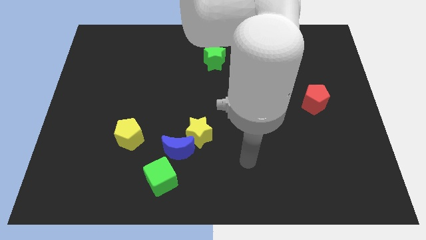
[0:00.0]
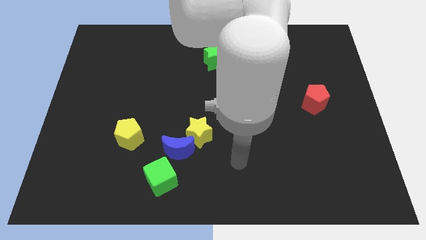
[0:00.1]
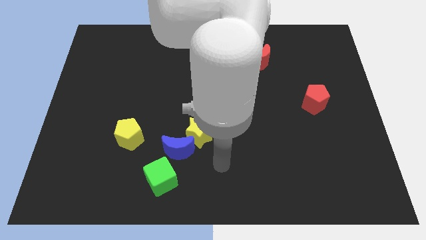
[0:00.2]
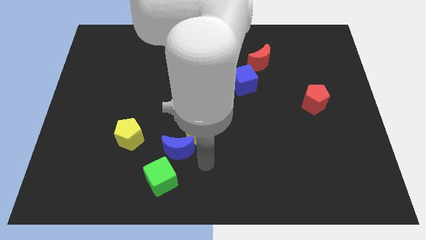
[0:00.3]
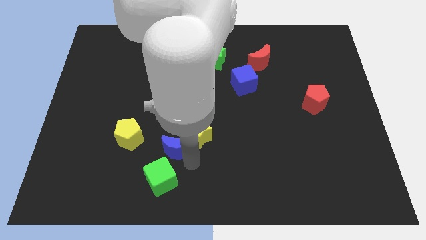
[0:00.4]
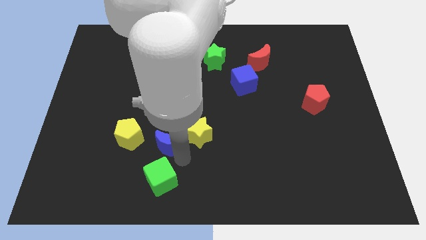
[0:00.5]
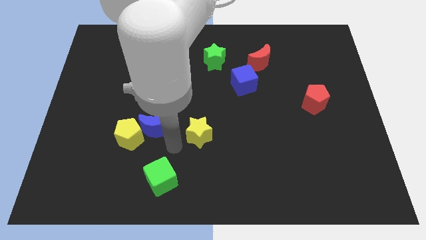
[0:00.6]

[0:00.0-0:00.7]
separate the yellow star from the blue moon

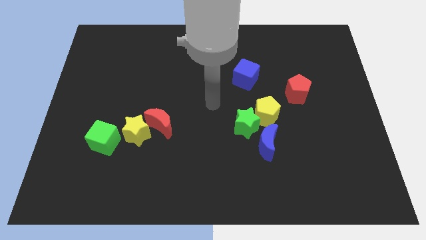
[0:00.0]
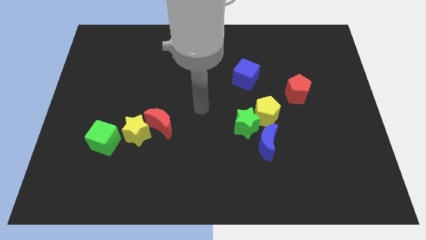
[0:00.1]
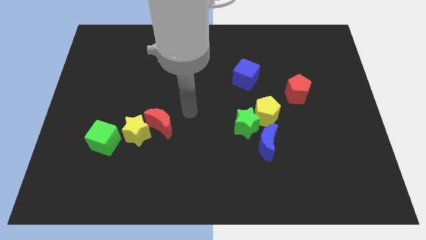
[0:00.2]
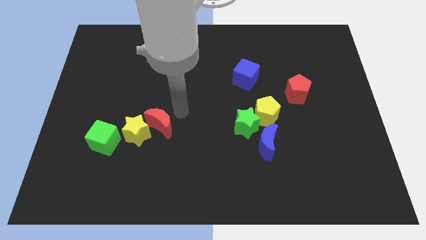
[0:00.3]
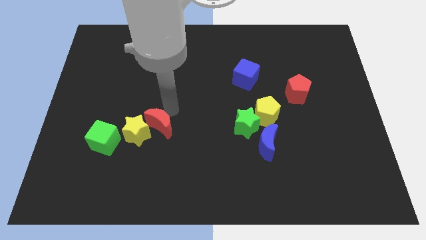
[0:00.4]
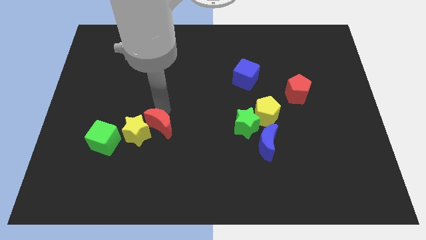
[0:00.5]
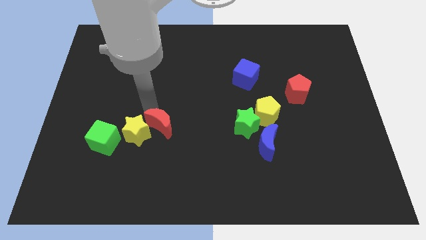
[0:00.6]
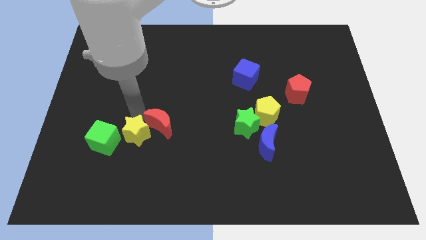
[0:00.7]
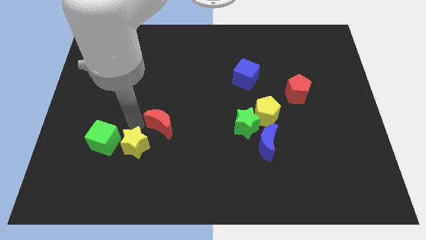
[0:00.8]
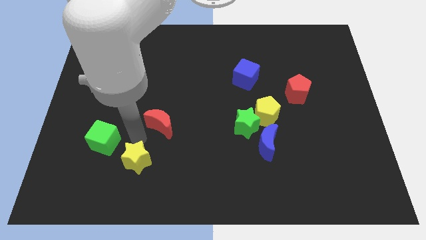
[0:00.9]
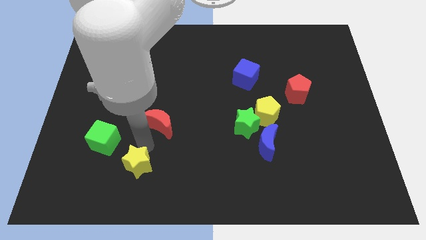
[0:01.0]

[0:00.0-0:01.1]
pull the red moon apart from the yellow star

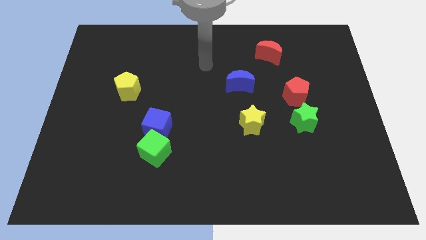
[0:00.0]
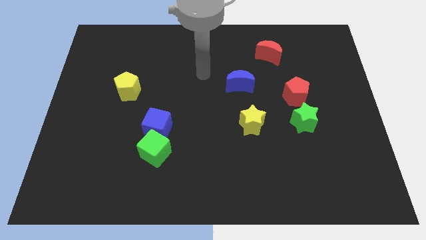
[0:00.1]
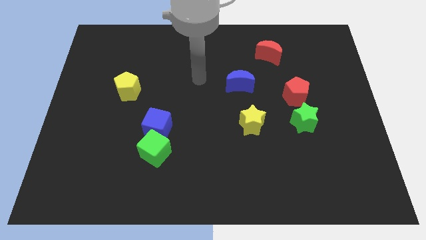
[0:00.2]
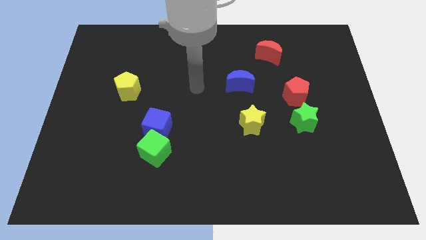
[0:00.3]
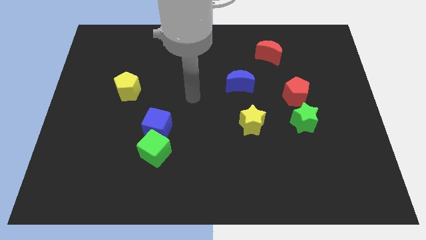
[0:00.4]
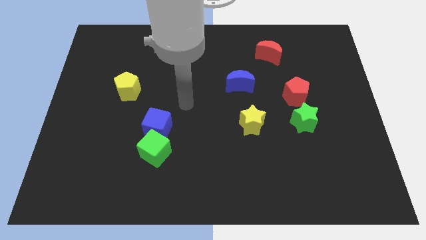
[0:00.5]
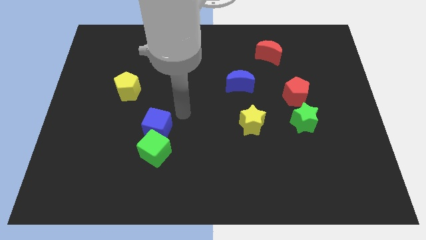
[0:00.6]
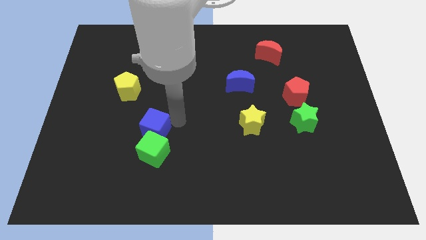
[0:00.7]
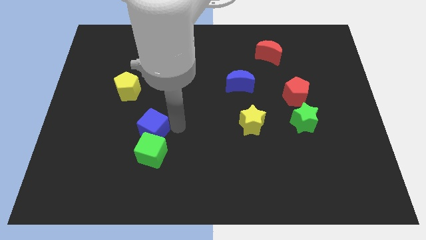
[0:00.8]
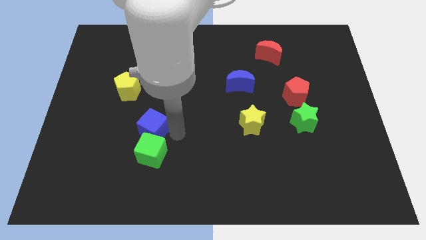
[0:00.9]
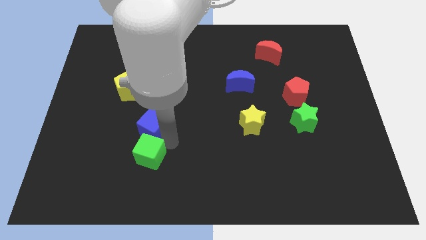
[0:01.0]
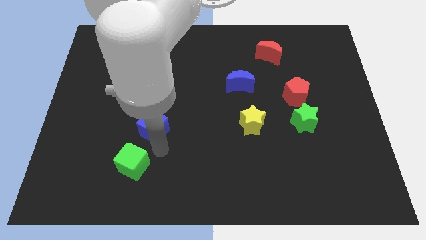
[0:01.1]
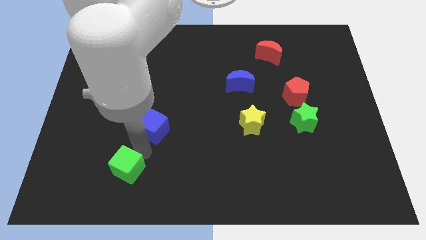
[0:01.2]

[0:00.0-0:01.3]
move the blue cube away from the green cube

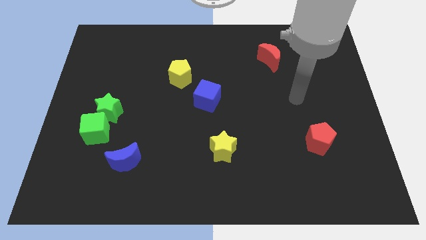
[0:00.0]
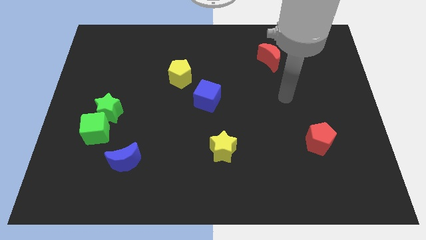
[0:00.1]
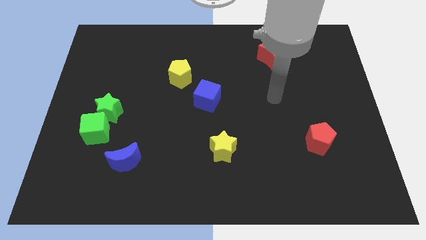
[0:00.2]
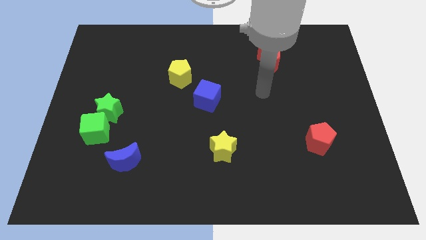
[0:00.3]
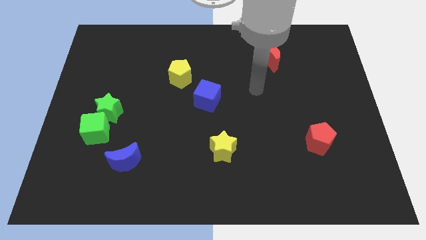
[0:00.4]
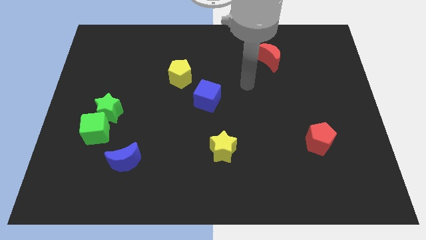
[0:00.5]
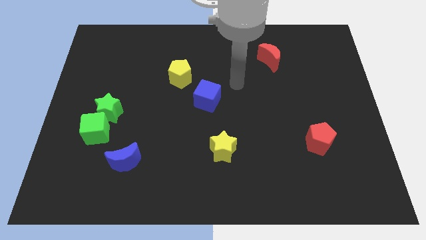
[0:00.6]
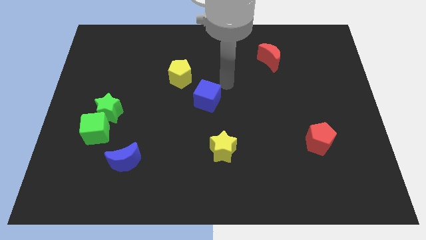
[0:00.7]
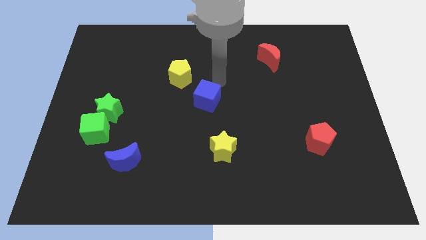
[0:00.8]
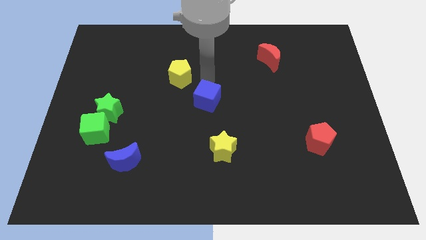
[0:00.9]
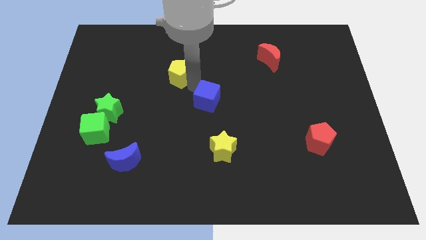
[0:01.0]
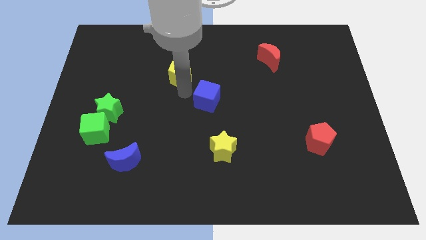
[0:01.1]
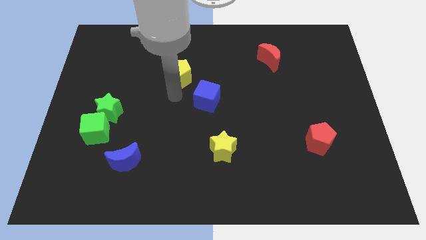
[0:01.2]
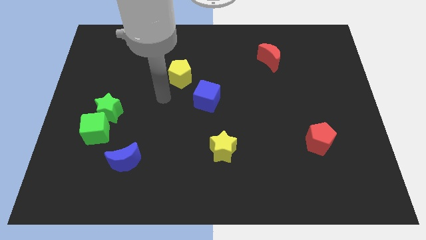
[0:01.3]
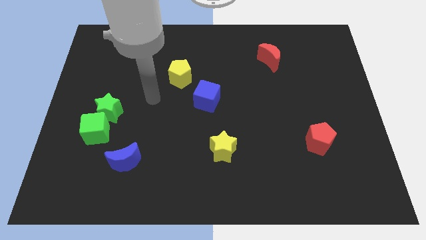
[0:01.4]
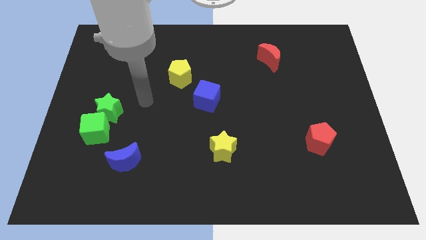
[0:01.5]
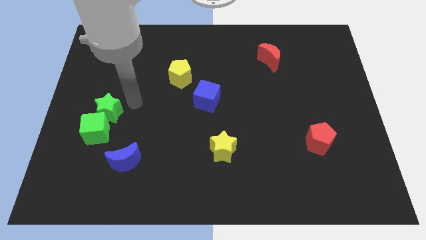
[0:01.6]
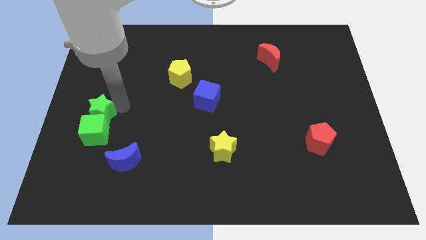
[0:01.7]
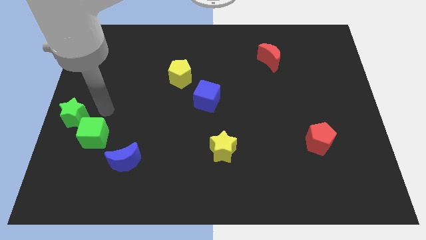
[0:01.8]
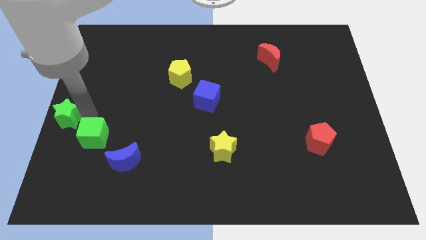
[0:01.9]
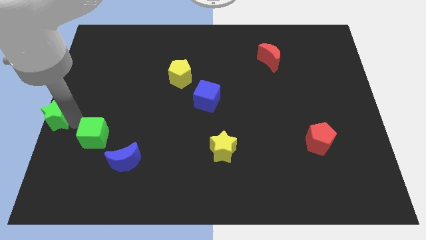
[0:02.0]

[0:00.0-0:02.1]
move the green cube away from the green star

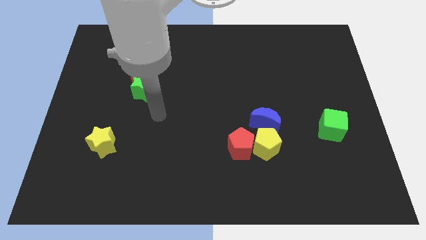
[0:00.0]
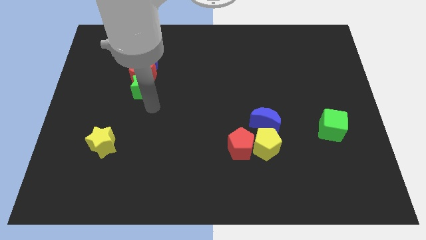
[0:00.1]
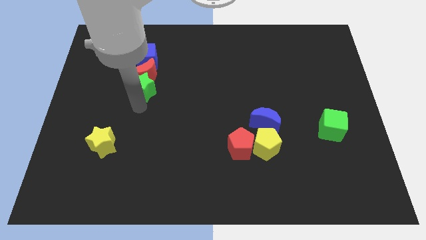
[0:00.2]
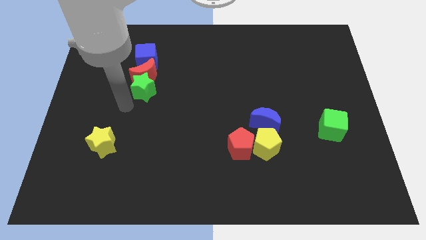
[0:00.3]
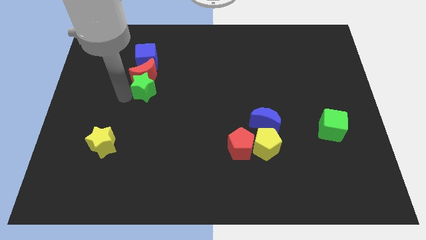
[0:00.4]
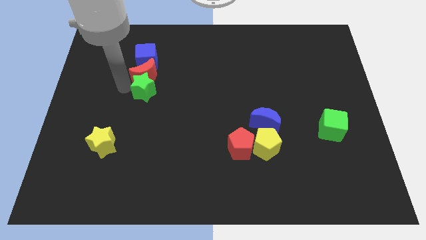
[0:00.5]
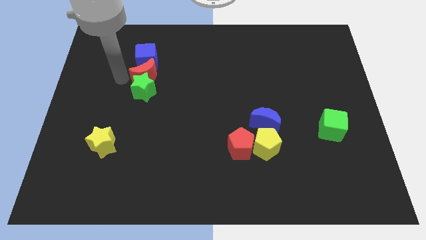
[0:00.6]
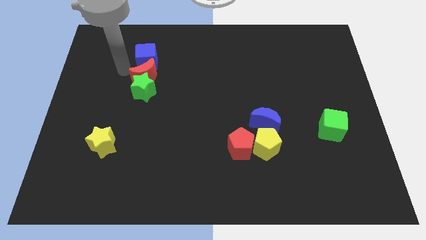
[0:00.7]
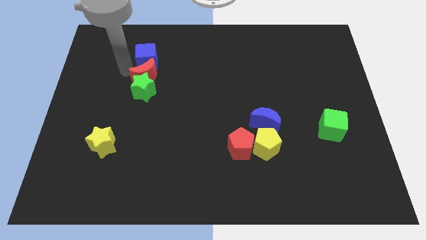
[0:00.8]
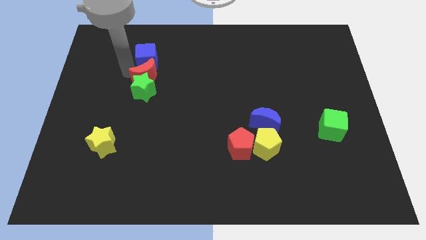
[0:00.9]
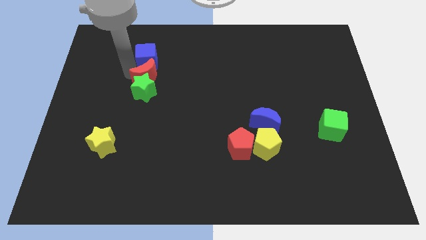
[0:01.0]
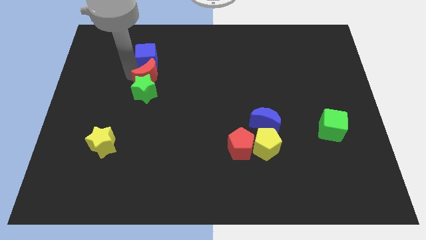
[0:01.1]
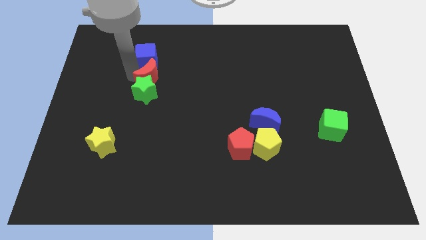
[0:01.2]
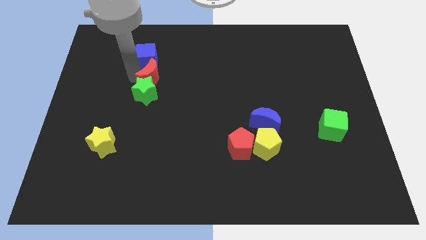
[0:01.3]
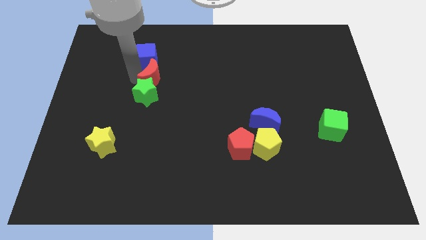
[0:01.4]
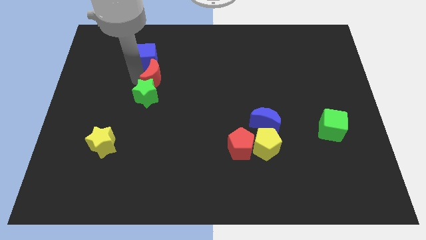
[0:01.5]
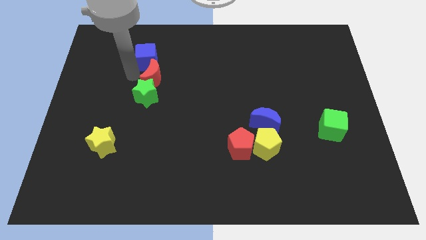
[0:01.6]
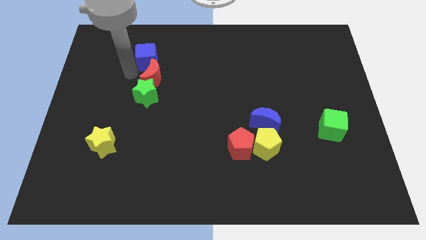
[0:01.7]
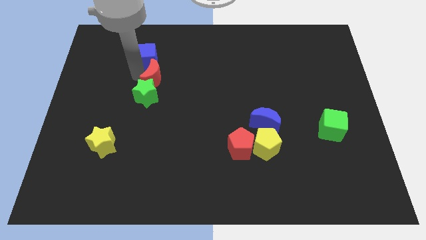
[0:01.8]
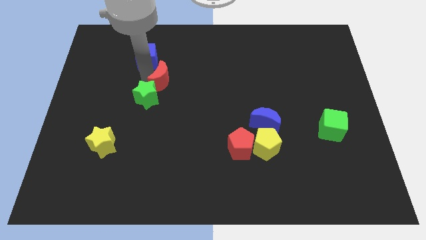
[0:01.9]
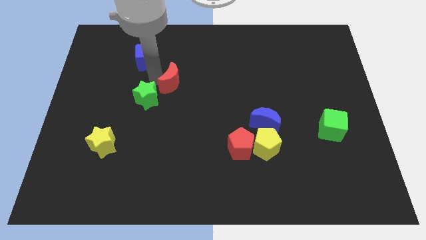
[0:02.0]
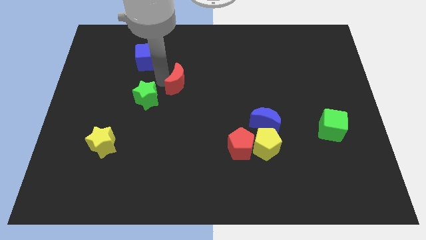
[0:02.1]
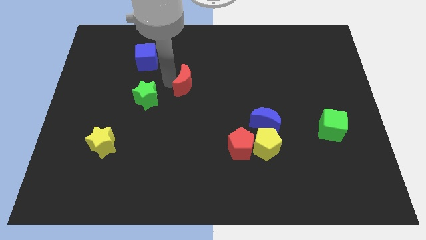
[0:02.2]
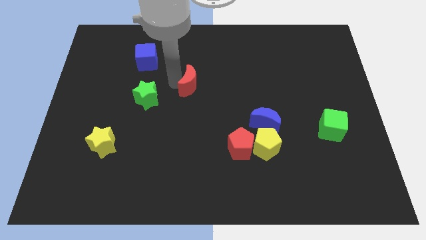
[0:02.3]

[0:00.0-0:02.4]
separate the red moon from the green star and blue cube

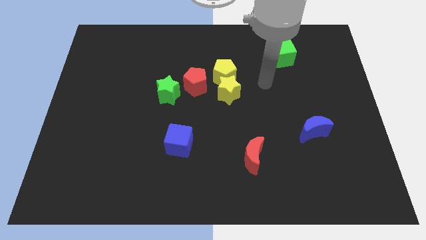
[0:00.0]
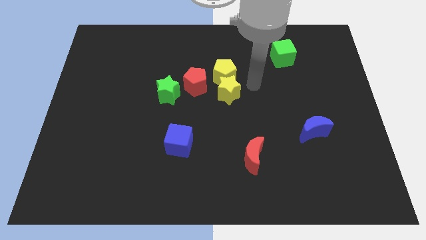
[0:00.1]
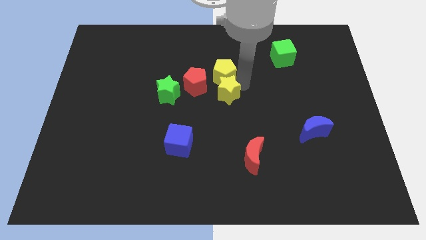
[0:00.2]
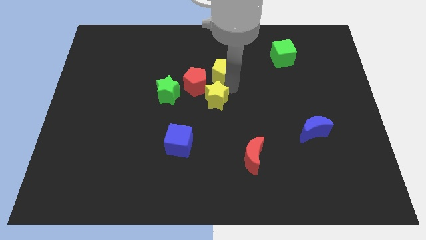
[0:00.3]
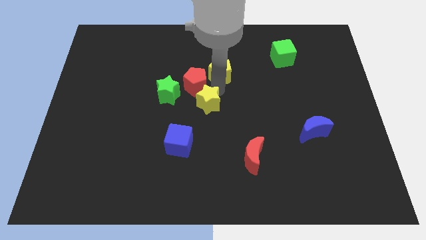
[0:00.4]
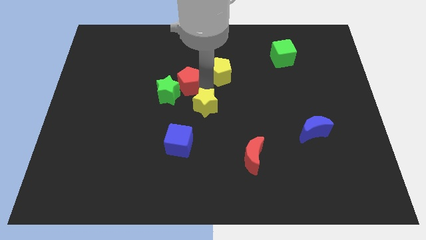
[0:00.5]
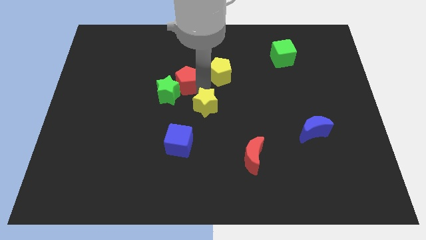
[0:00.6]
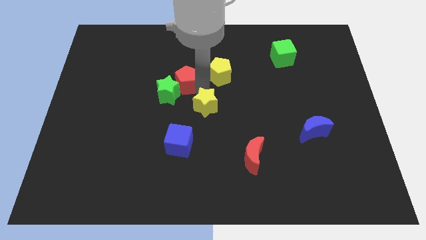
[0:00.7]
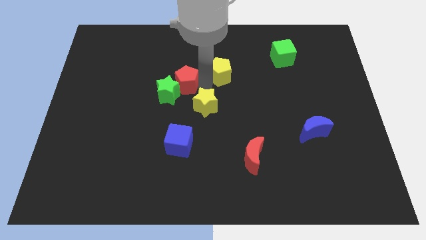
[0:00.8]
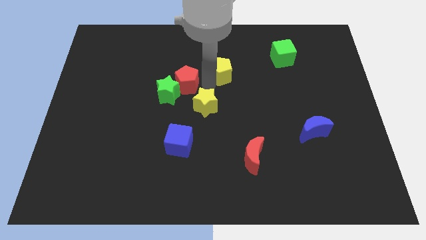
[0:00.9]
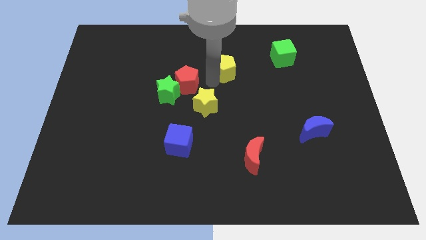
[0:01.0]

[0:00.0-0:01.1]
move the yellow pentagon away from the yellow star and red pentagon

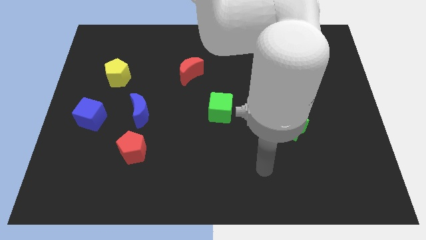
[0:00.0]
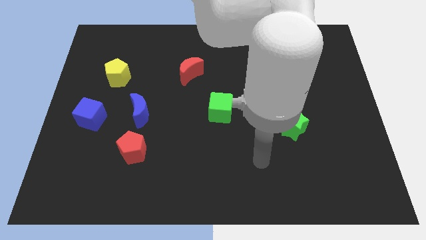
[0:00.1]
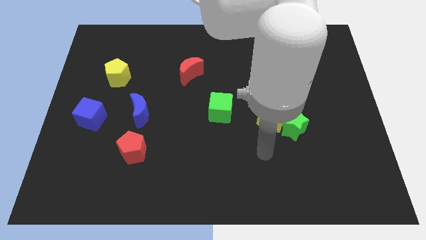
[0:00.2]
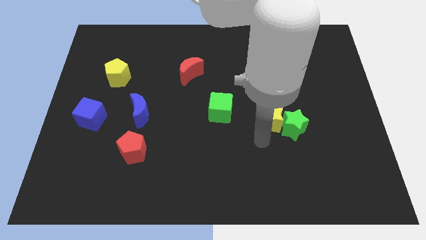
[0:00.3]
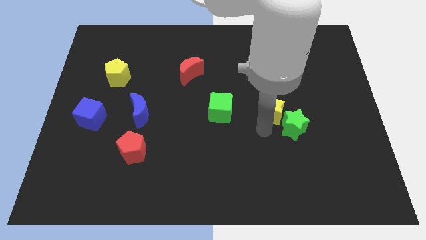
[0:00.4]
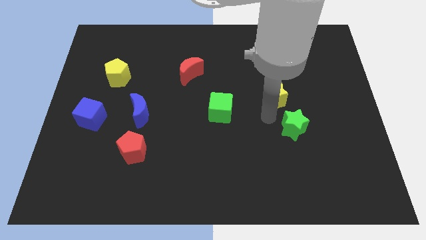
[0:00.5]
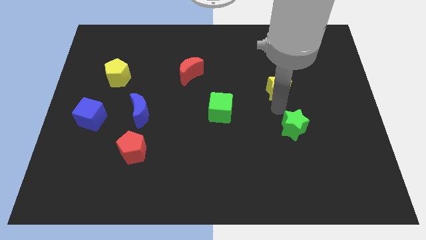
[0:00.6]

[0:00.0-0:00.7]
separate the green star from the yellow star
